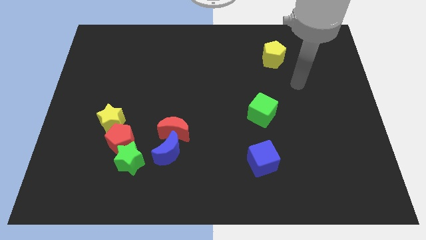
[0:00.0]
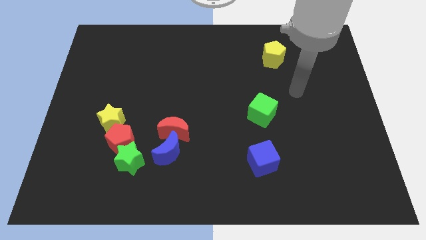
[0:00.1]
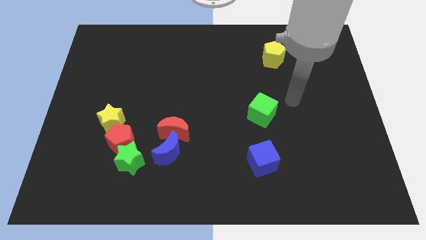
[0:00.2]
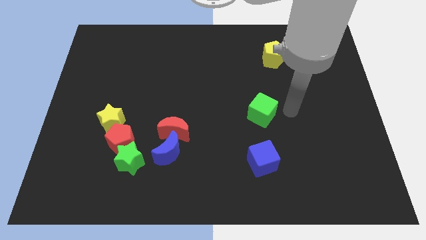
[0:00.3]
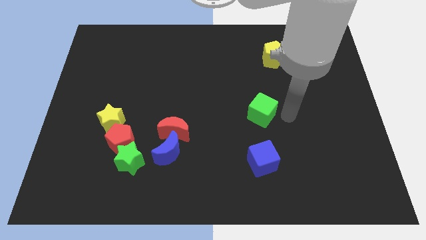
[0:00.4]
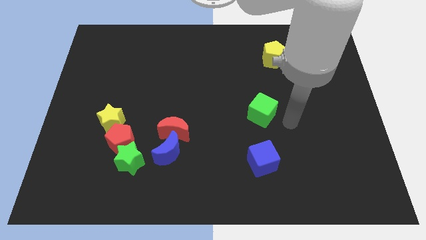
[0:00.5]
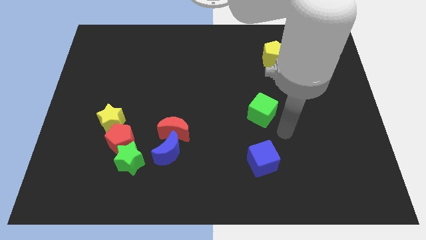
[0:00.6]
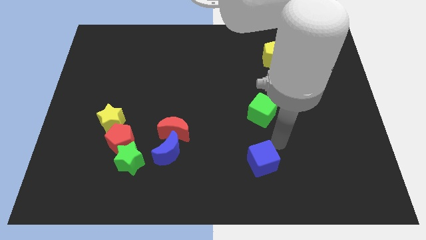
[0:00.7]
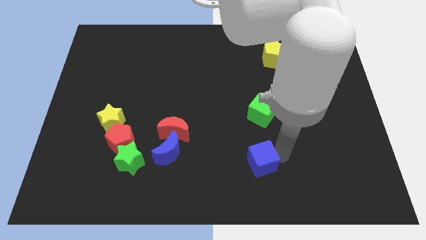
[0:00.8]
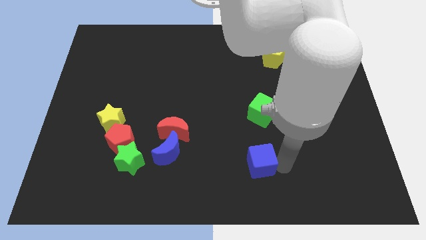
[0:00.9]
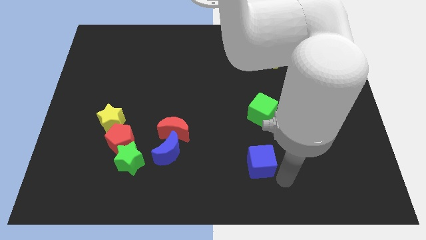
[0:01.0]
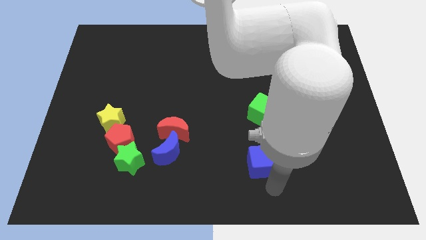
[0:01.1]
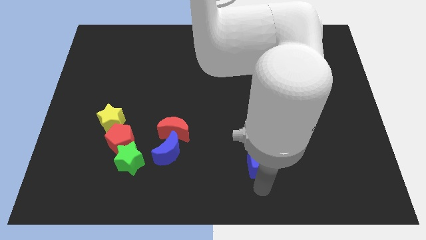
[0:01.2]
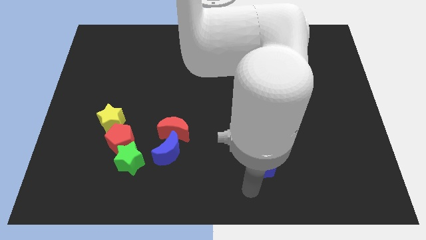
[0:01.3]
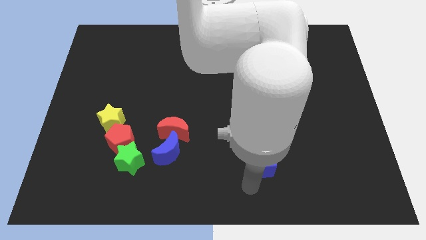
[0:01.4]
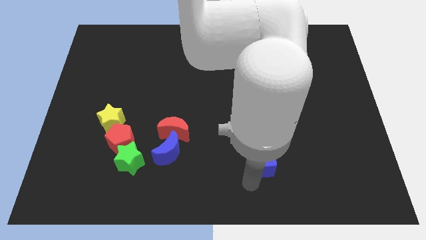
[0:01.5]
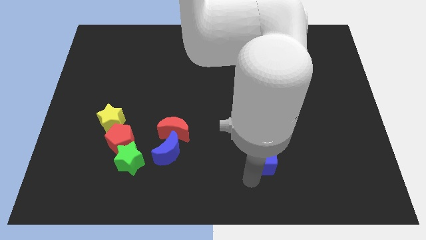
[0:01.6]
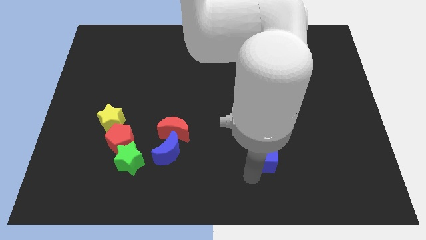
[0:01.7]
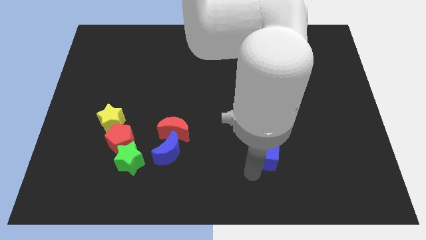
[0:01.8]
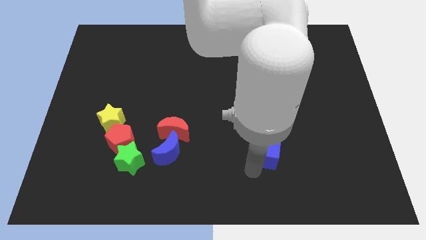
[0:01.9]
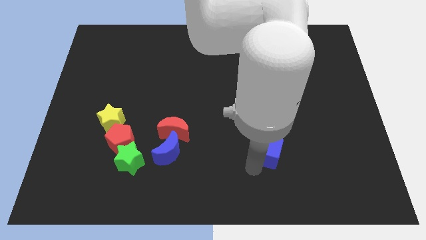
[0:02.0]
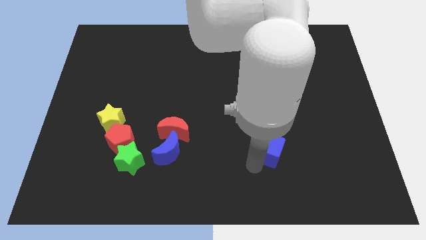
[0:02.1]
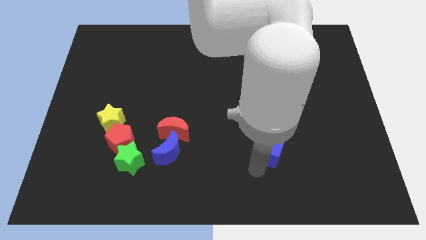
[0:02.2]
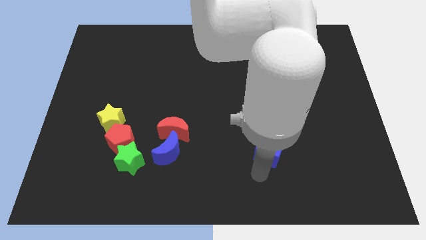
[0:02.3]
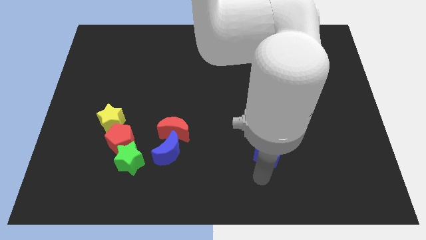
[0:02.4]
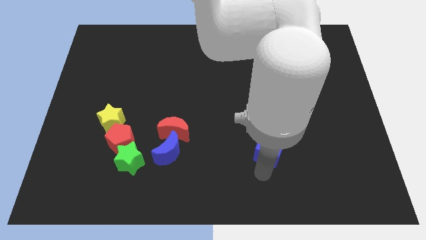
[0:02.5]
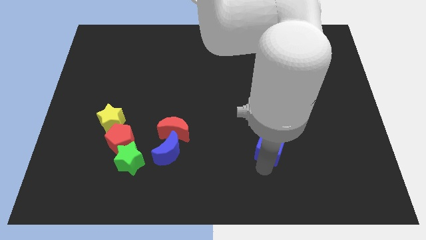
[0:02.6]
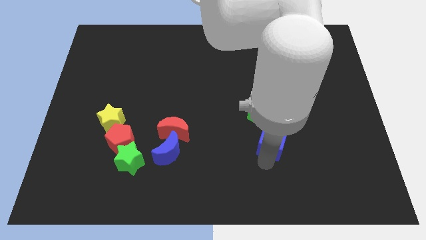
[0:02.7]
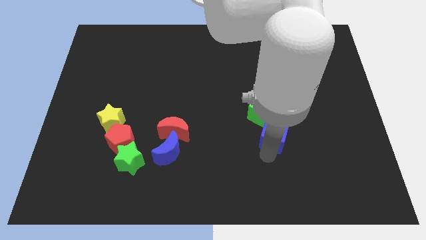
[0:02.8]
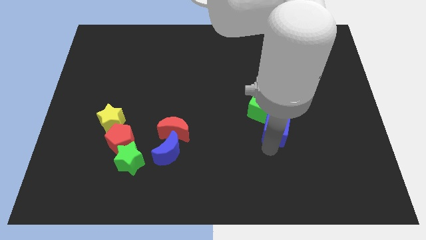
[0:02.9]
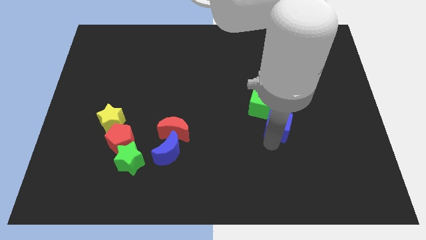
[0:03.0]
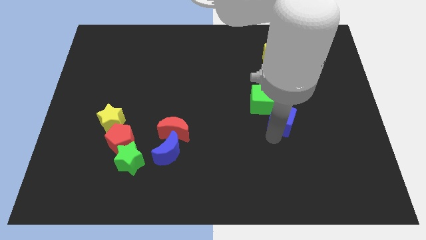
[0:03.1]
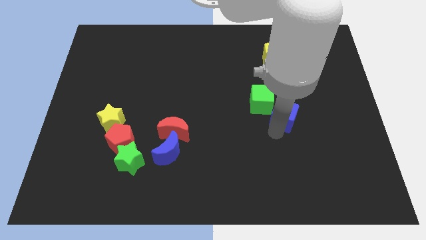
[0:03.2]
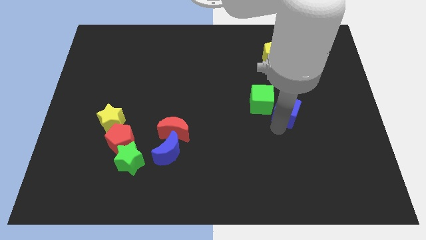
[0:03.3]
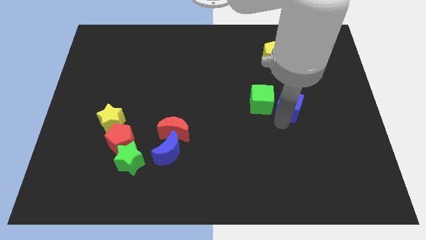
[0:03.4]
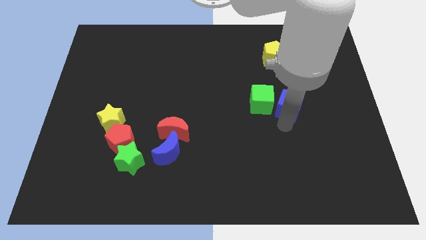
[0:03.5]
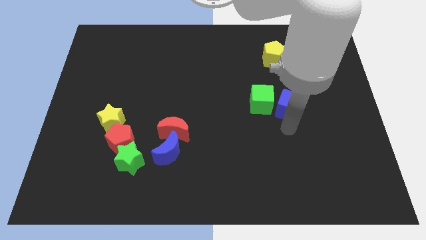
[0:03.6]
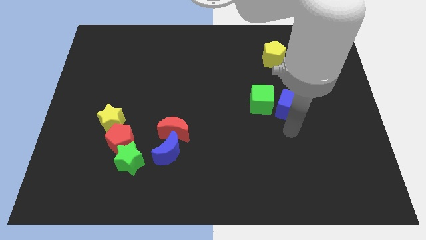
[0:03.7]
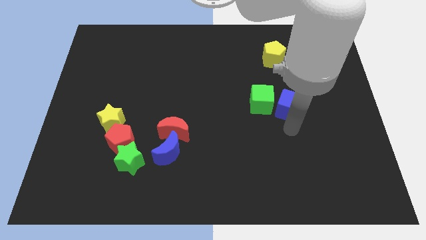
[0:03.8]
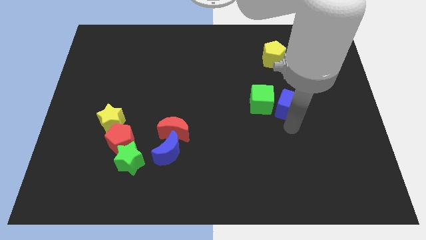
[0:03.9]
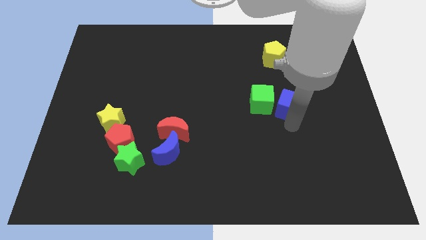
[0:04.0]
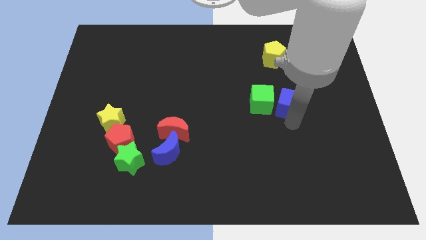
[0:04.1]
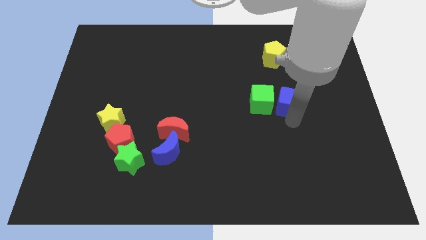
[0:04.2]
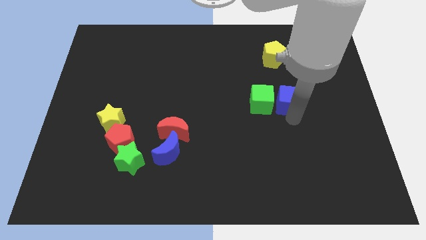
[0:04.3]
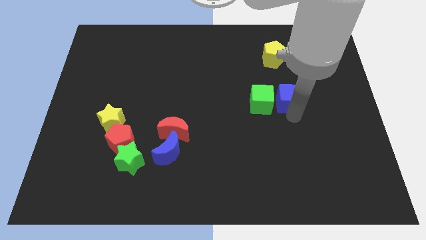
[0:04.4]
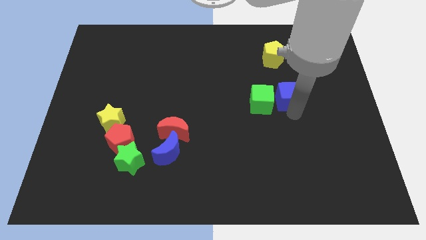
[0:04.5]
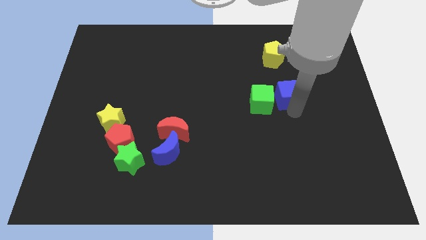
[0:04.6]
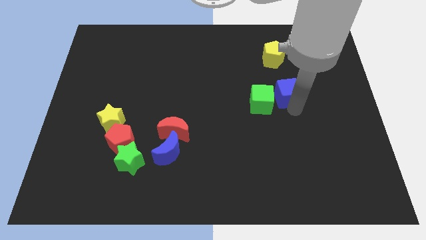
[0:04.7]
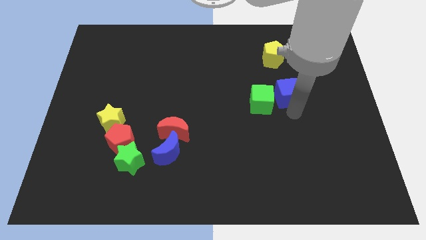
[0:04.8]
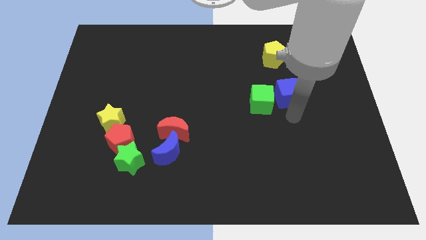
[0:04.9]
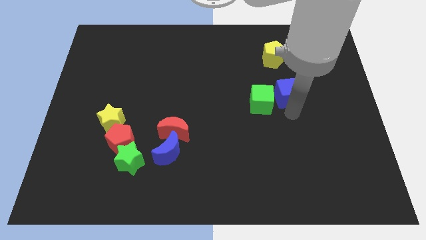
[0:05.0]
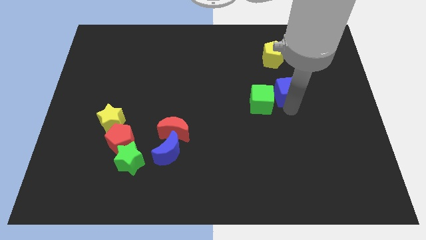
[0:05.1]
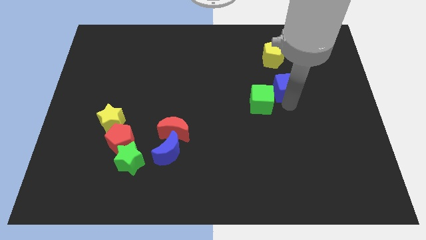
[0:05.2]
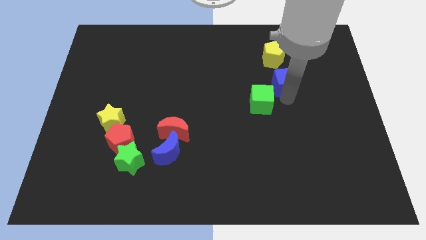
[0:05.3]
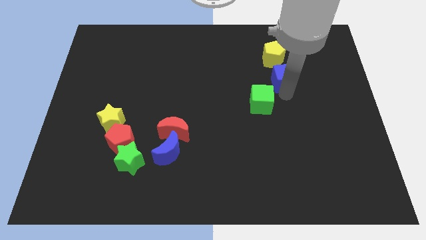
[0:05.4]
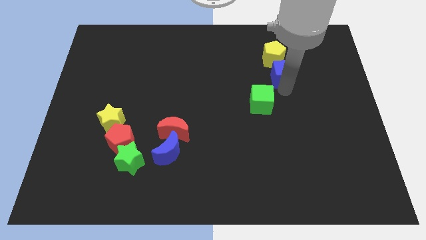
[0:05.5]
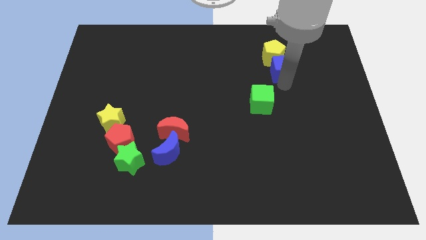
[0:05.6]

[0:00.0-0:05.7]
push the blue cube towards the yellow pentagon

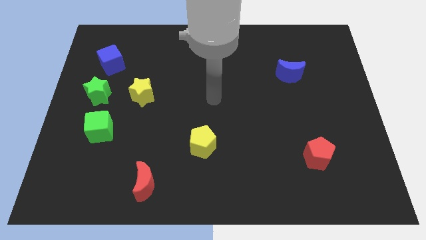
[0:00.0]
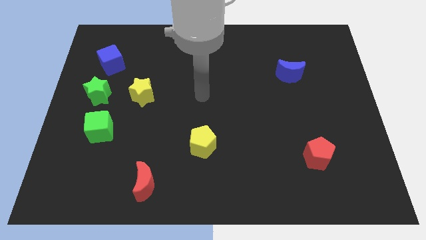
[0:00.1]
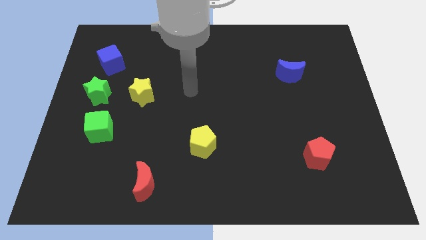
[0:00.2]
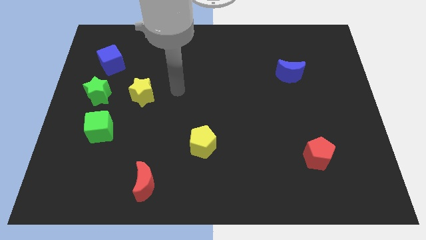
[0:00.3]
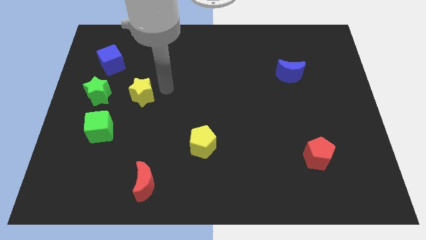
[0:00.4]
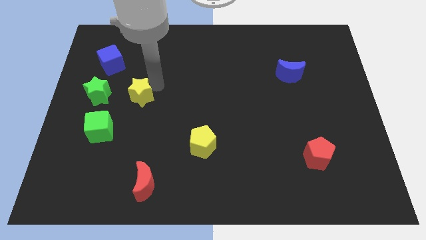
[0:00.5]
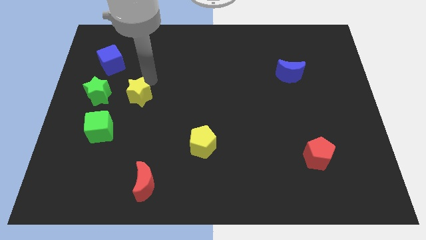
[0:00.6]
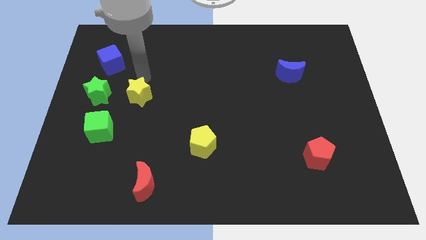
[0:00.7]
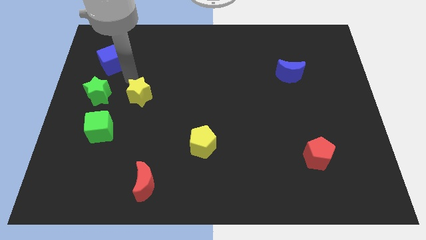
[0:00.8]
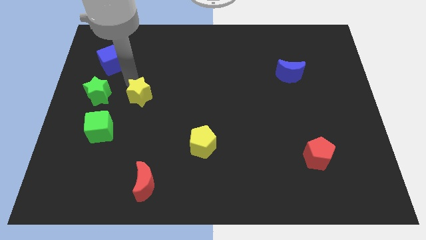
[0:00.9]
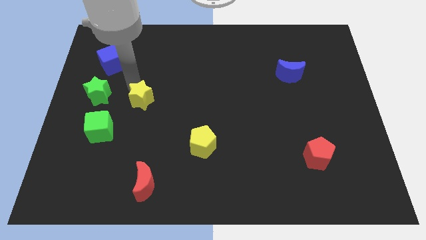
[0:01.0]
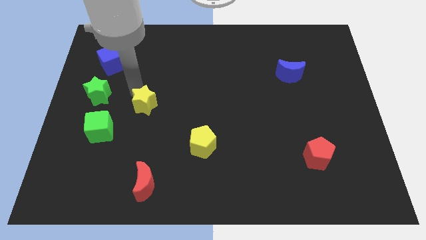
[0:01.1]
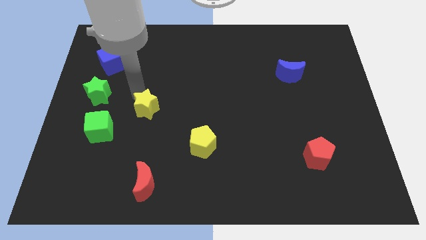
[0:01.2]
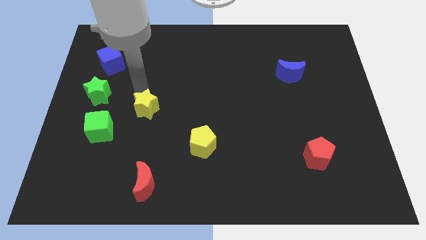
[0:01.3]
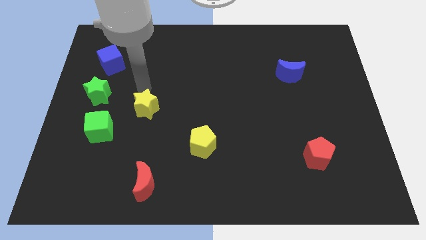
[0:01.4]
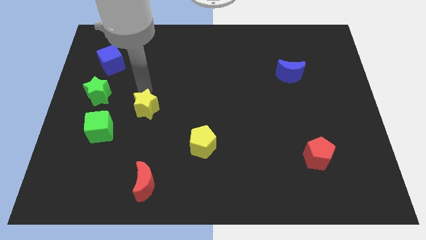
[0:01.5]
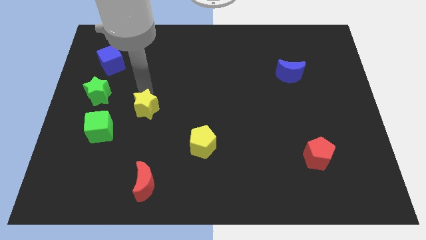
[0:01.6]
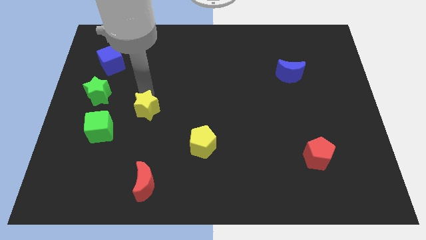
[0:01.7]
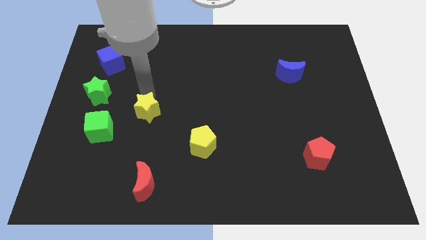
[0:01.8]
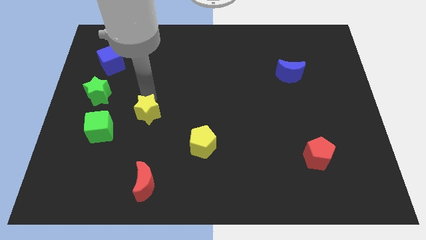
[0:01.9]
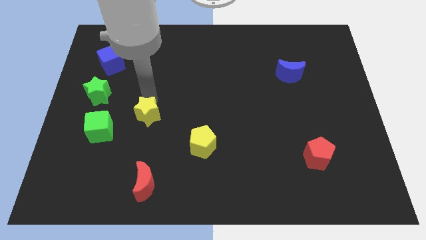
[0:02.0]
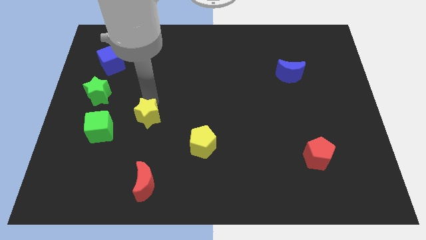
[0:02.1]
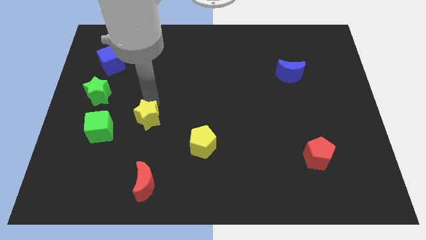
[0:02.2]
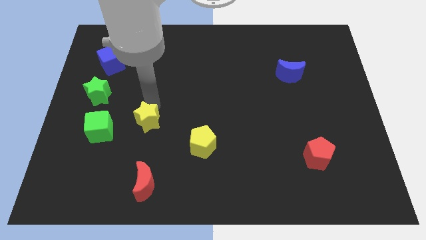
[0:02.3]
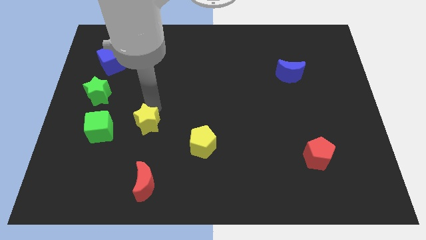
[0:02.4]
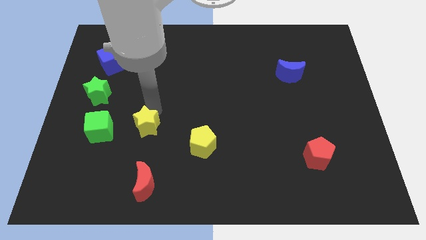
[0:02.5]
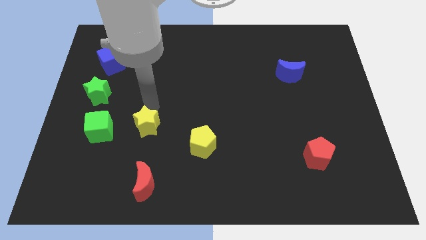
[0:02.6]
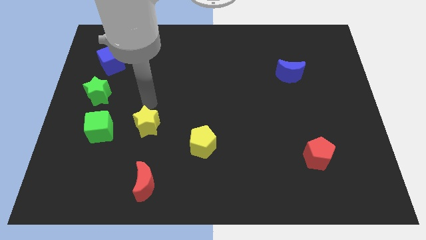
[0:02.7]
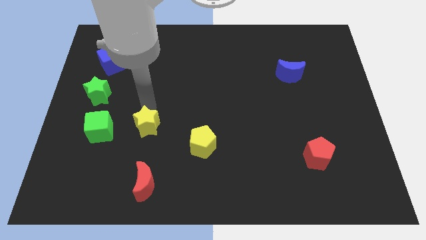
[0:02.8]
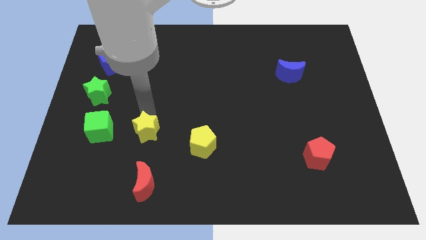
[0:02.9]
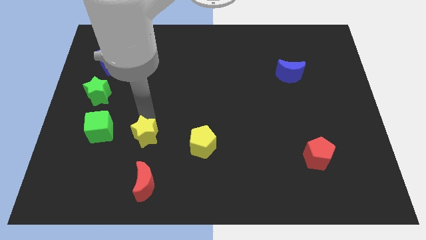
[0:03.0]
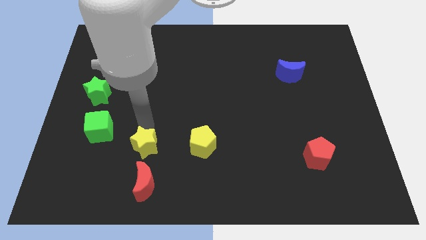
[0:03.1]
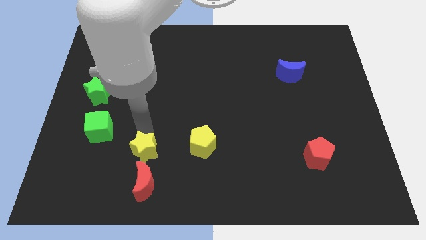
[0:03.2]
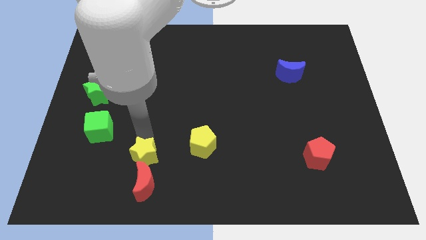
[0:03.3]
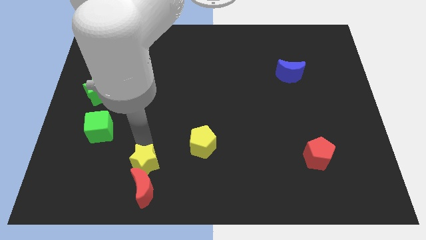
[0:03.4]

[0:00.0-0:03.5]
put the yellow star next to the red moon
